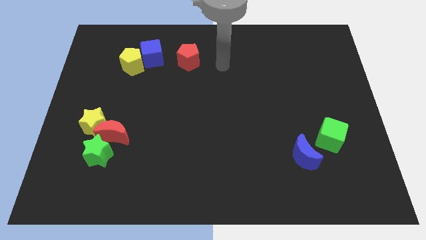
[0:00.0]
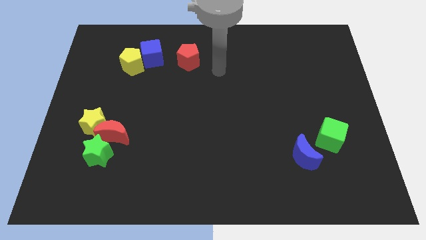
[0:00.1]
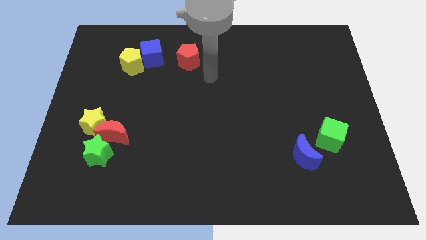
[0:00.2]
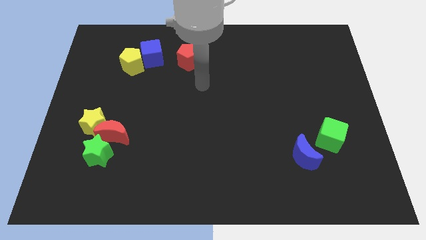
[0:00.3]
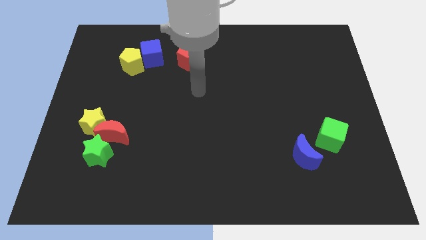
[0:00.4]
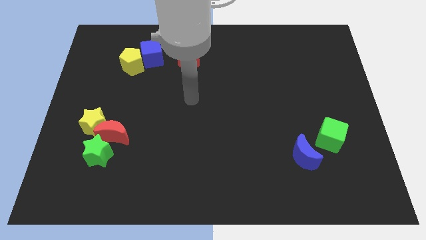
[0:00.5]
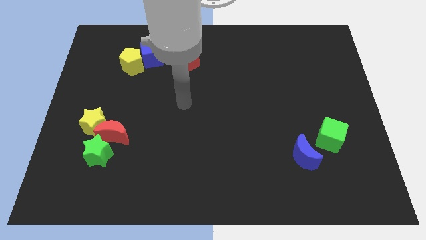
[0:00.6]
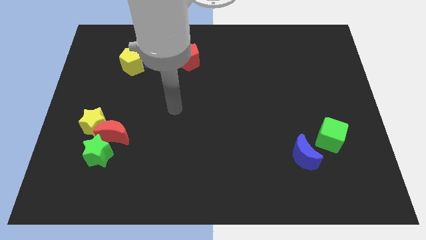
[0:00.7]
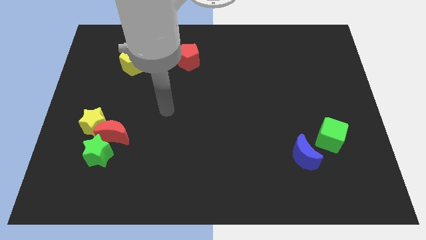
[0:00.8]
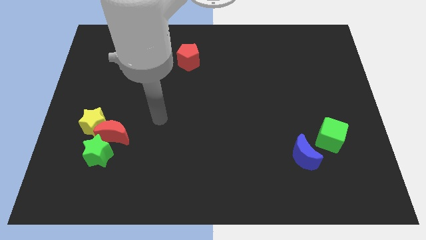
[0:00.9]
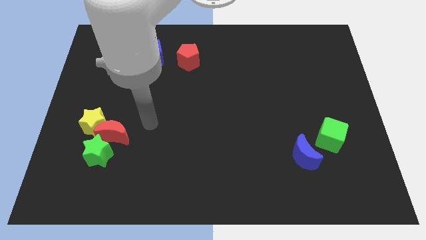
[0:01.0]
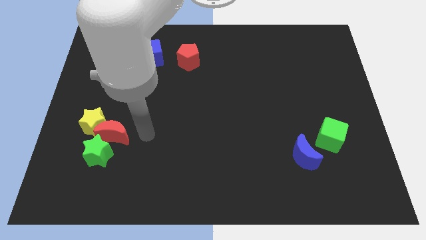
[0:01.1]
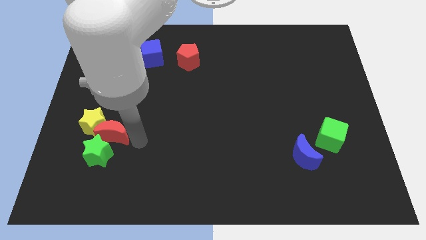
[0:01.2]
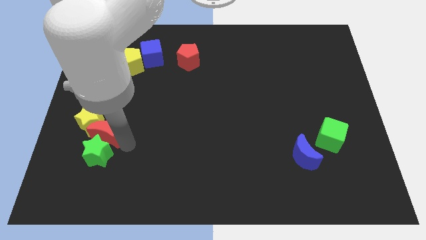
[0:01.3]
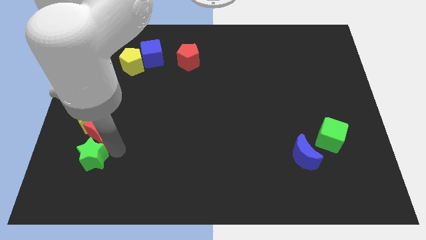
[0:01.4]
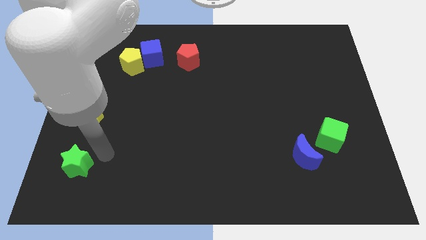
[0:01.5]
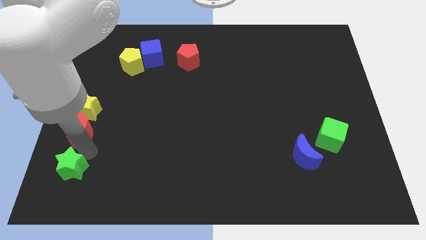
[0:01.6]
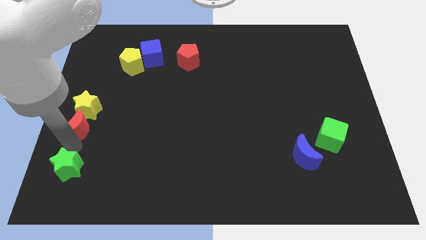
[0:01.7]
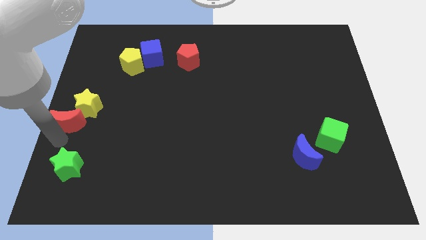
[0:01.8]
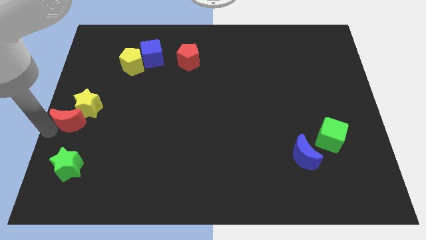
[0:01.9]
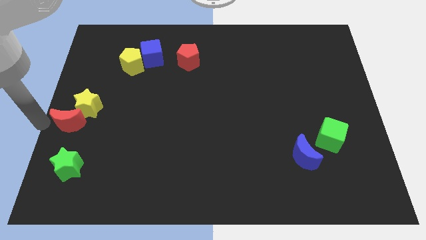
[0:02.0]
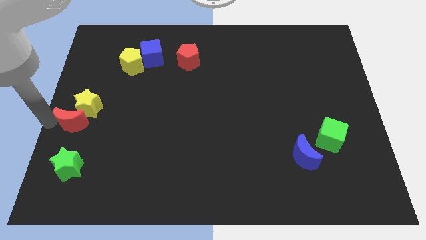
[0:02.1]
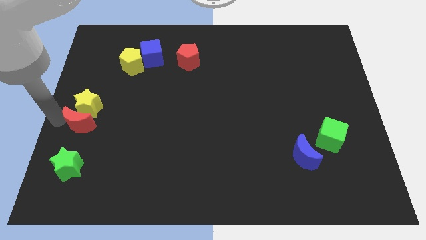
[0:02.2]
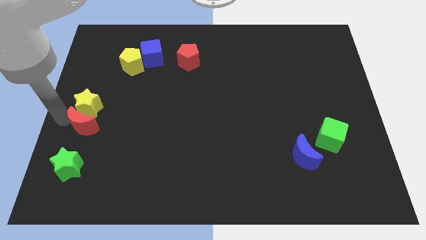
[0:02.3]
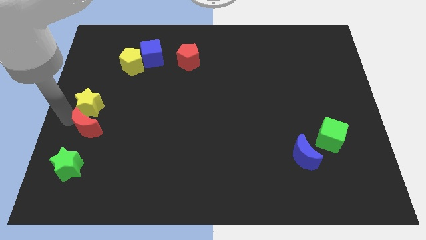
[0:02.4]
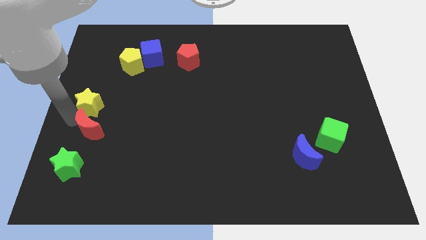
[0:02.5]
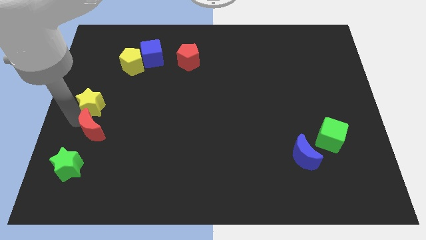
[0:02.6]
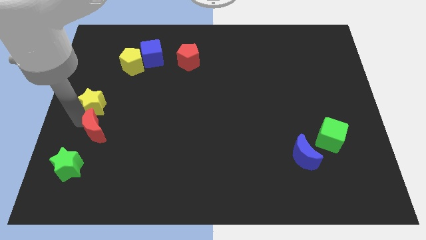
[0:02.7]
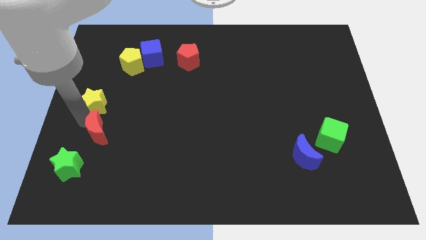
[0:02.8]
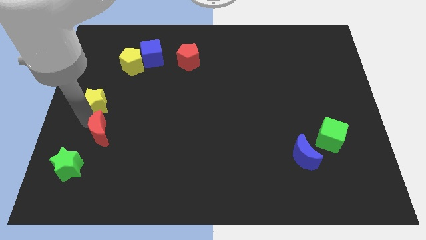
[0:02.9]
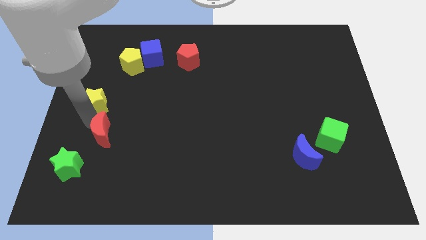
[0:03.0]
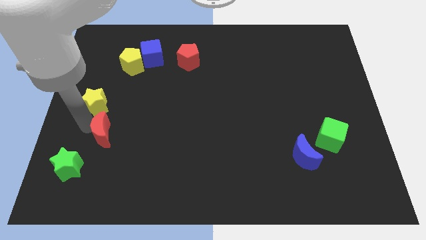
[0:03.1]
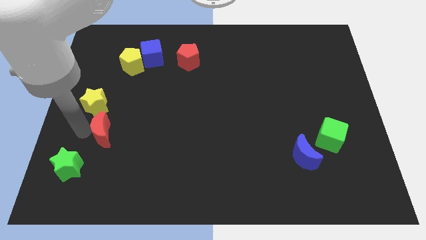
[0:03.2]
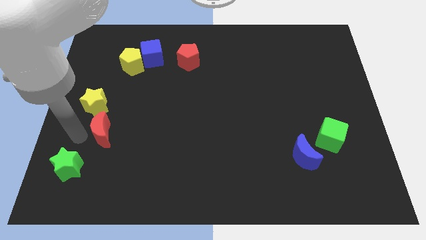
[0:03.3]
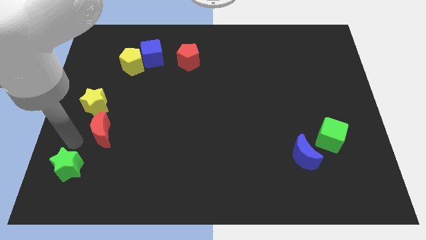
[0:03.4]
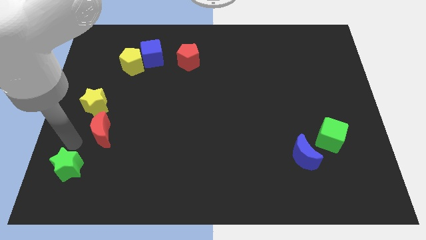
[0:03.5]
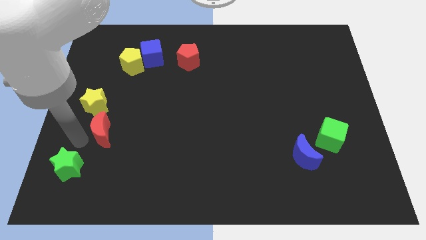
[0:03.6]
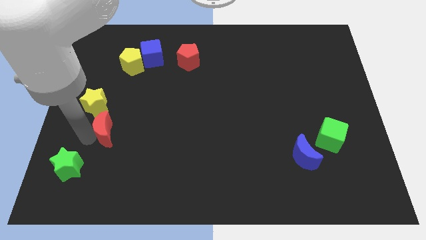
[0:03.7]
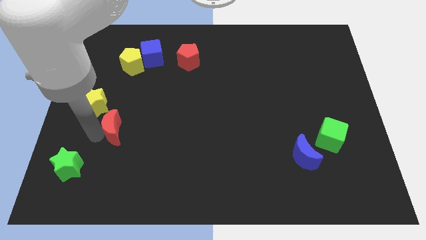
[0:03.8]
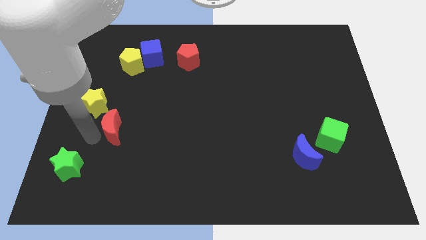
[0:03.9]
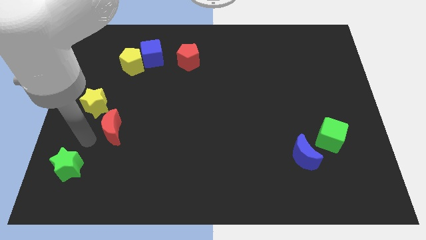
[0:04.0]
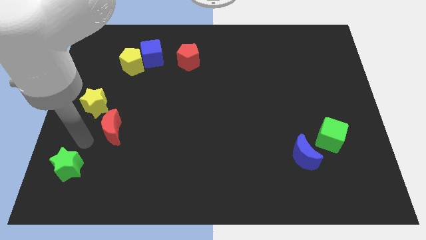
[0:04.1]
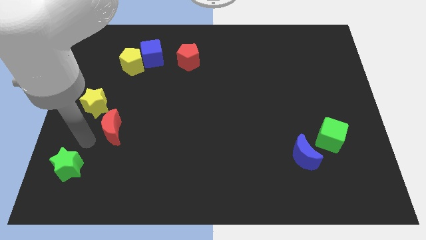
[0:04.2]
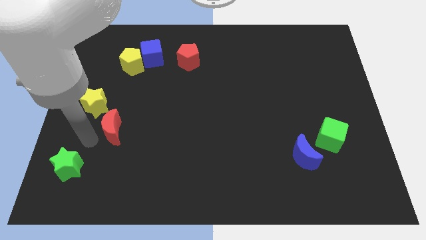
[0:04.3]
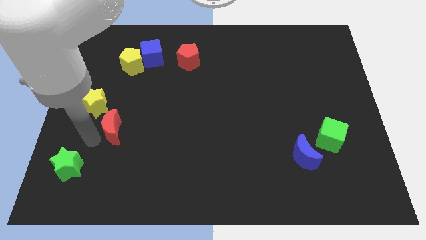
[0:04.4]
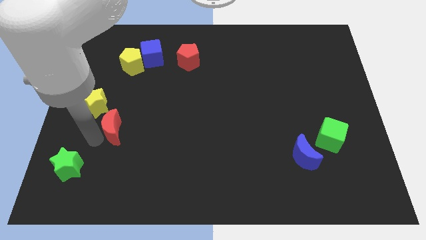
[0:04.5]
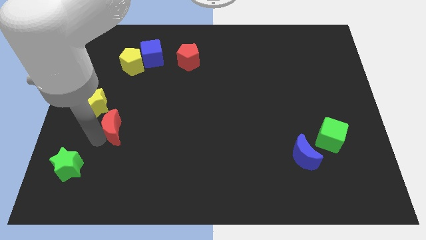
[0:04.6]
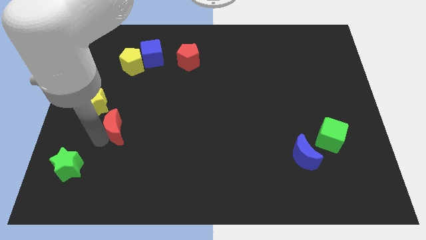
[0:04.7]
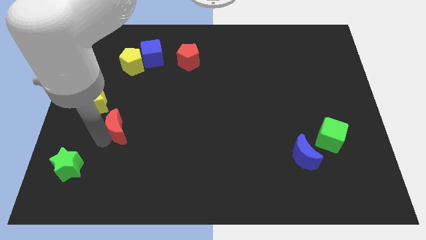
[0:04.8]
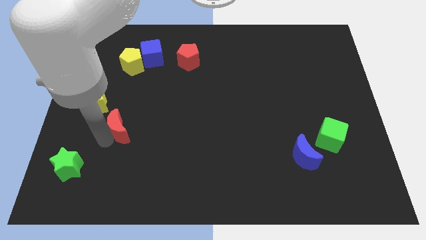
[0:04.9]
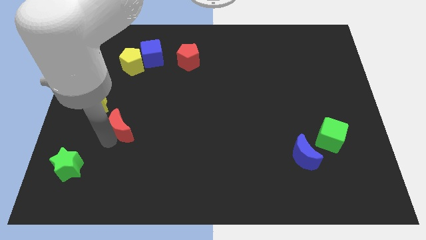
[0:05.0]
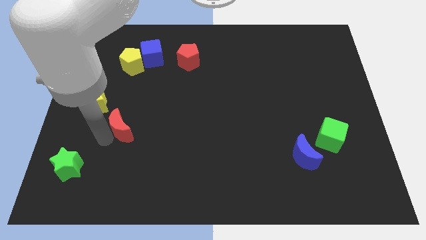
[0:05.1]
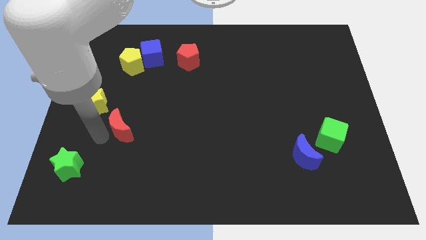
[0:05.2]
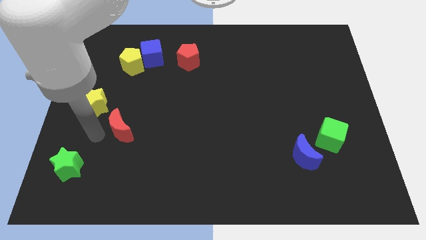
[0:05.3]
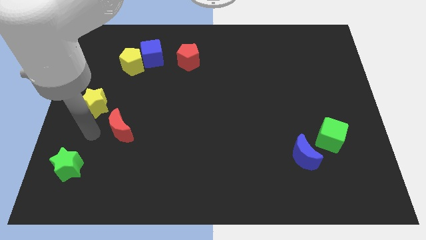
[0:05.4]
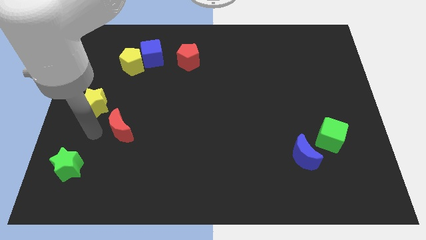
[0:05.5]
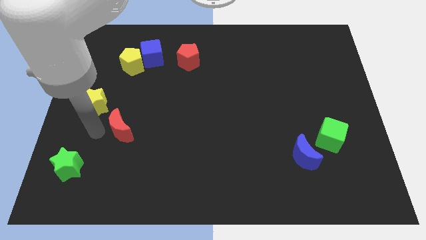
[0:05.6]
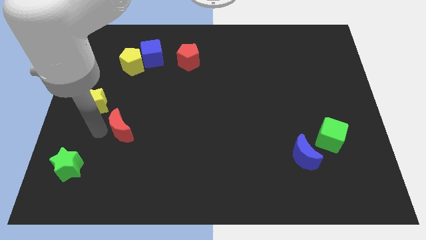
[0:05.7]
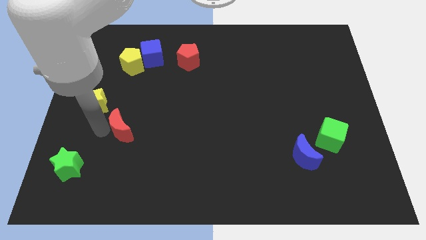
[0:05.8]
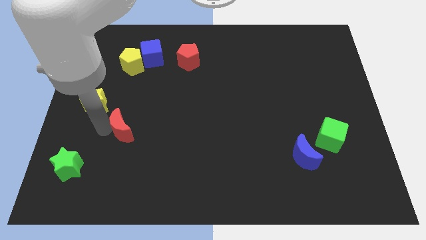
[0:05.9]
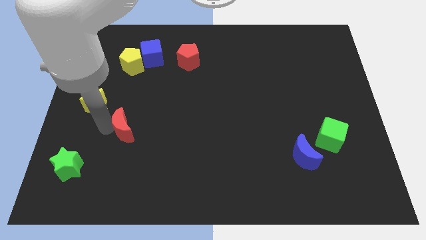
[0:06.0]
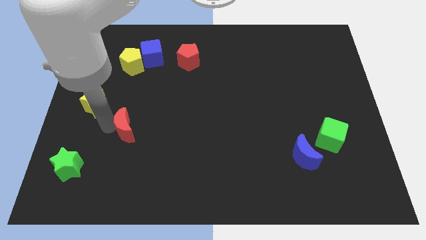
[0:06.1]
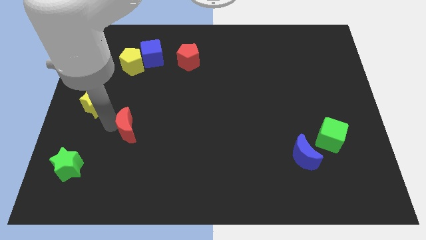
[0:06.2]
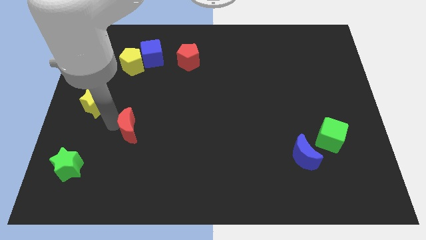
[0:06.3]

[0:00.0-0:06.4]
pull the red moon apart from the yellow star and green star

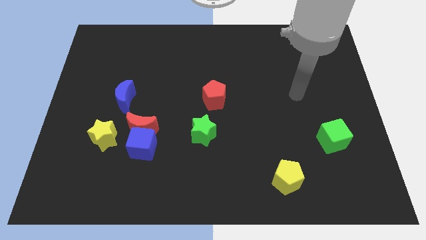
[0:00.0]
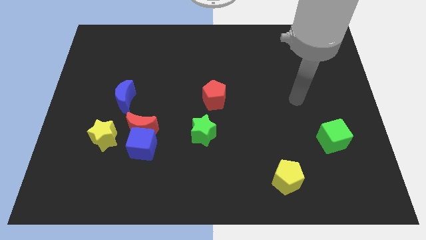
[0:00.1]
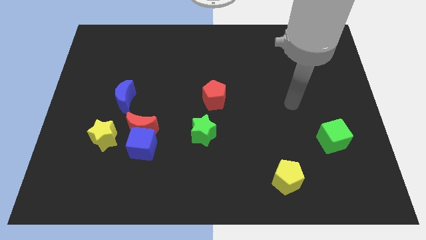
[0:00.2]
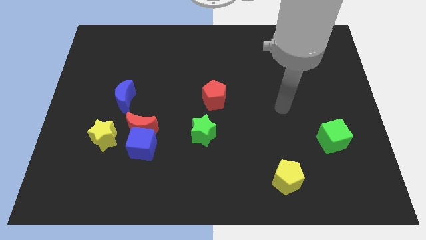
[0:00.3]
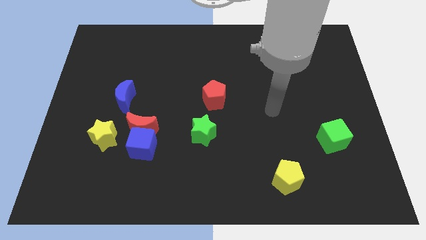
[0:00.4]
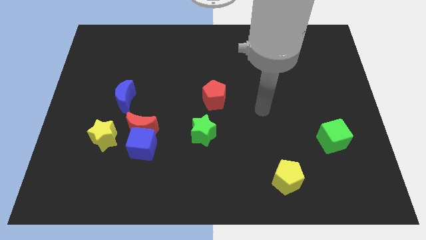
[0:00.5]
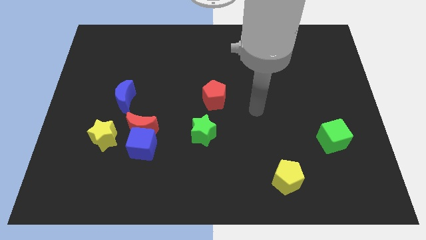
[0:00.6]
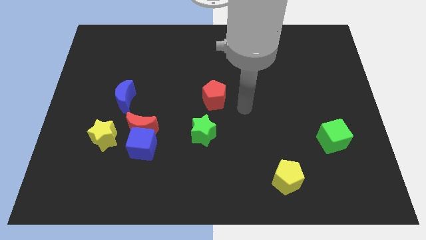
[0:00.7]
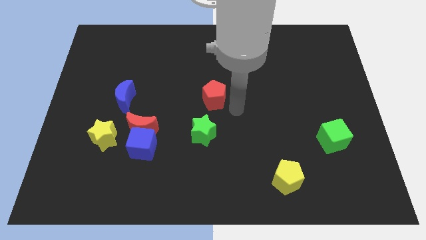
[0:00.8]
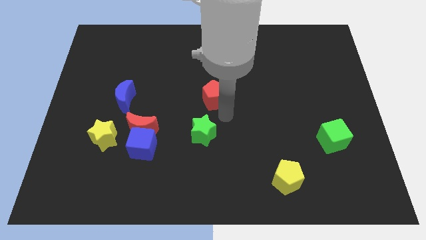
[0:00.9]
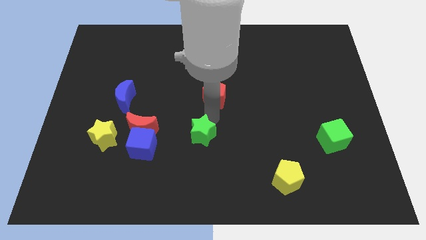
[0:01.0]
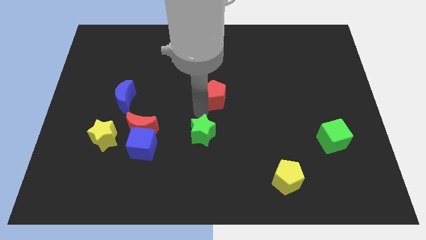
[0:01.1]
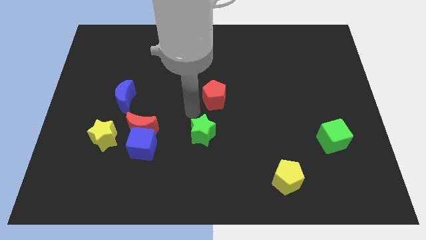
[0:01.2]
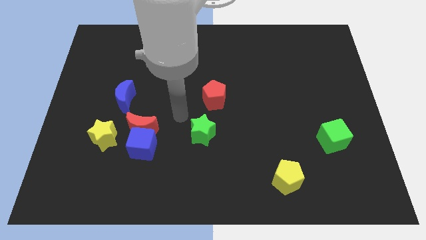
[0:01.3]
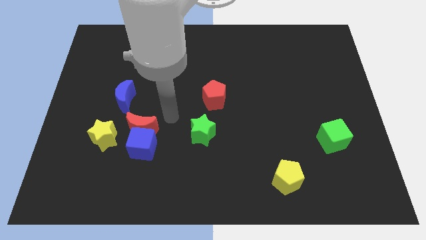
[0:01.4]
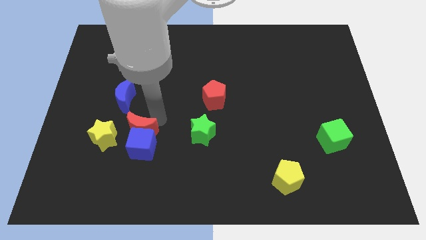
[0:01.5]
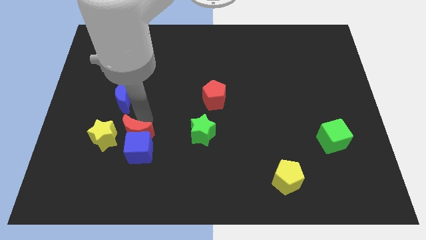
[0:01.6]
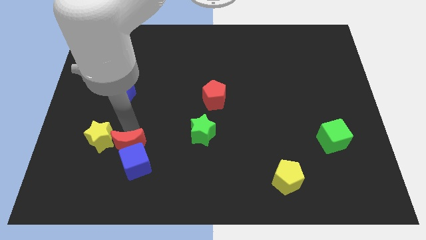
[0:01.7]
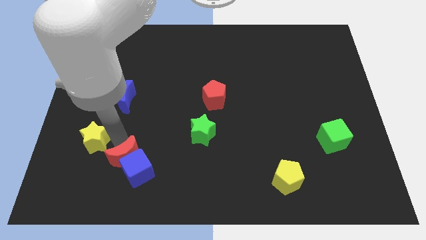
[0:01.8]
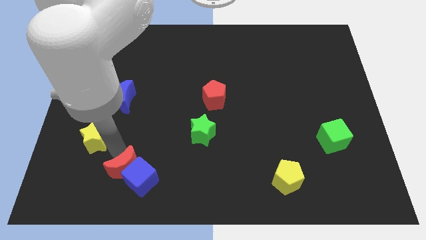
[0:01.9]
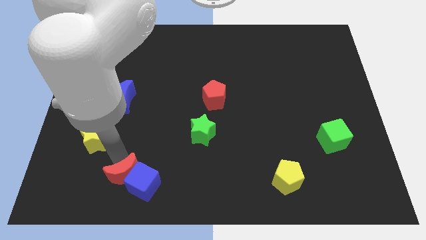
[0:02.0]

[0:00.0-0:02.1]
pull the blue cube apart from the red moon and yellow star

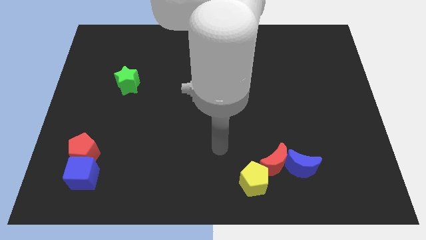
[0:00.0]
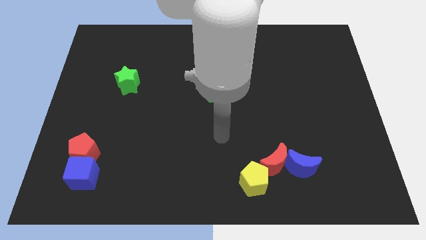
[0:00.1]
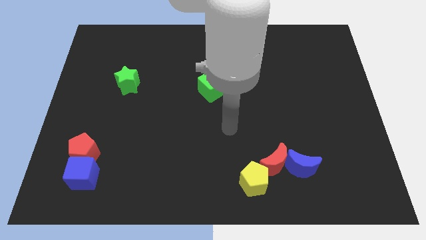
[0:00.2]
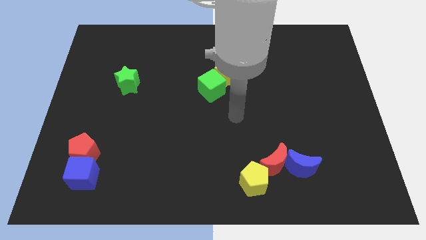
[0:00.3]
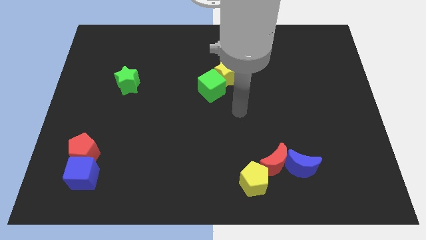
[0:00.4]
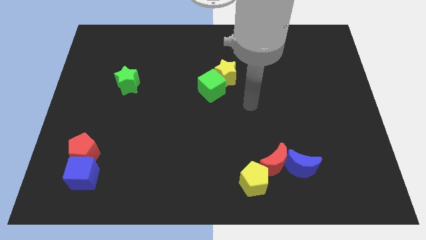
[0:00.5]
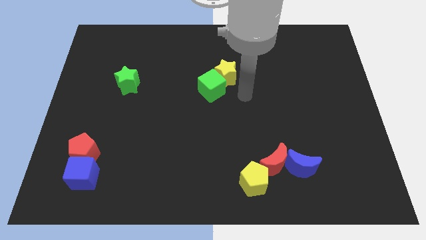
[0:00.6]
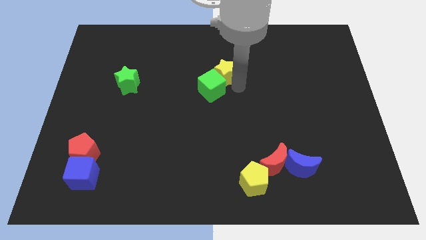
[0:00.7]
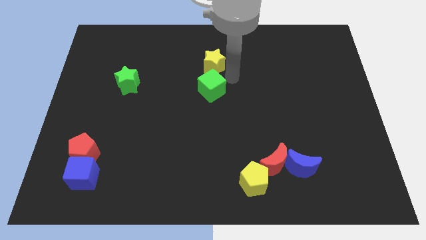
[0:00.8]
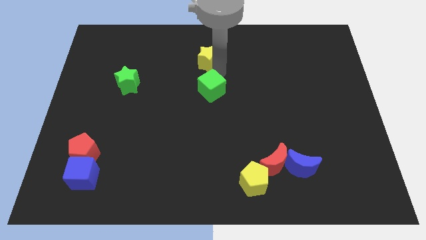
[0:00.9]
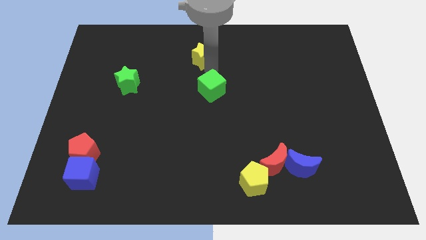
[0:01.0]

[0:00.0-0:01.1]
move the green cube away from the yellow star
